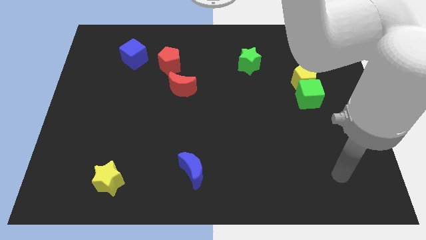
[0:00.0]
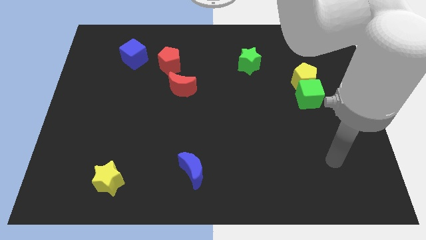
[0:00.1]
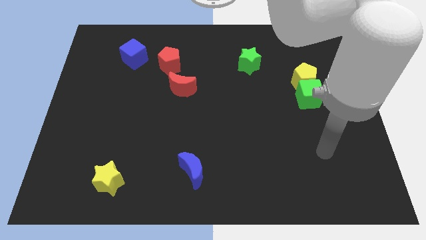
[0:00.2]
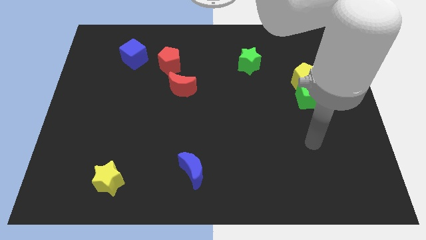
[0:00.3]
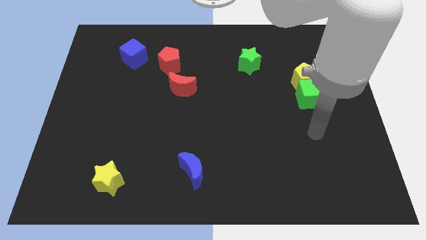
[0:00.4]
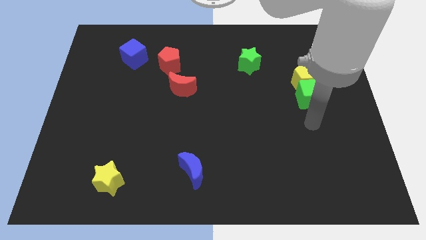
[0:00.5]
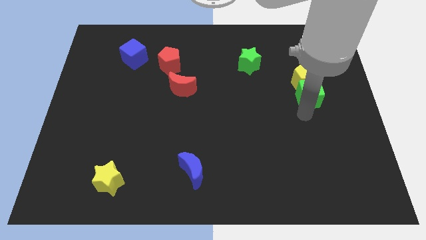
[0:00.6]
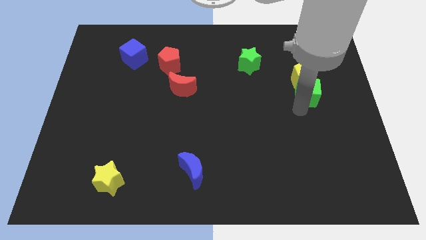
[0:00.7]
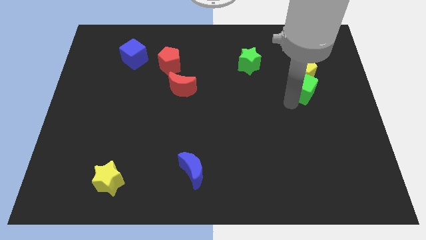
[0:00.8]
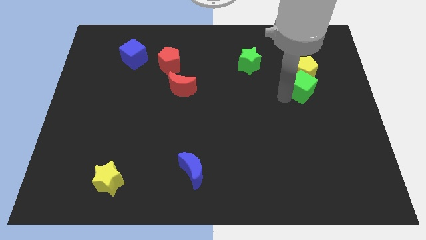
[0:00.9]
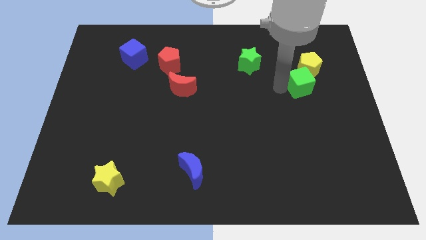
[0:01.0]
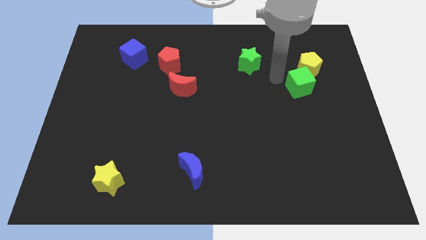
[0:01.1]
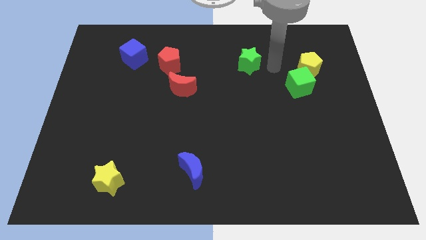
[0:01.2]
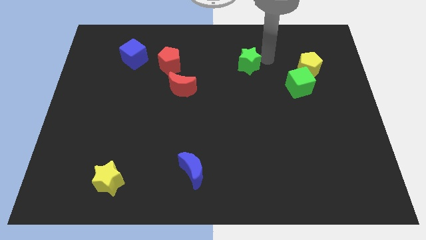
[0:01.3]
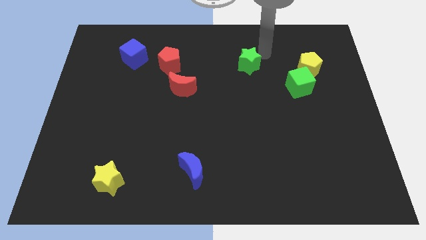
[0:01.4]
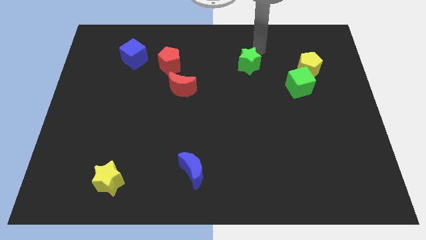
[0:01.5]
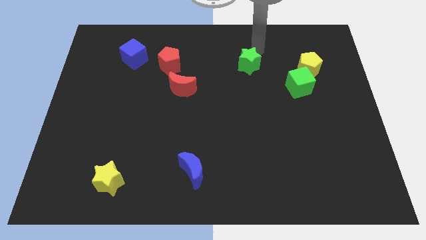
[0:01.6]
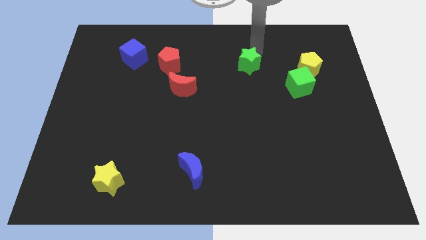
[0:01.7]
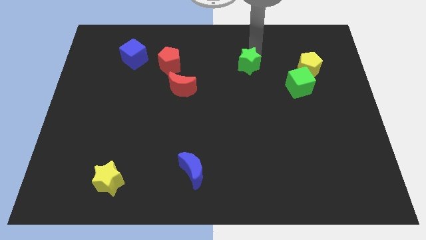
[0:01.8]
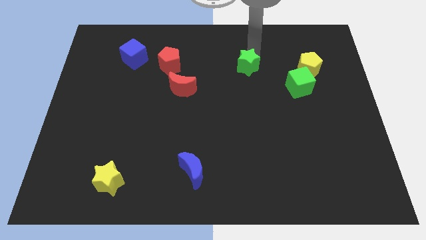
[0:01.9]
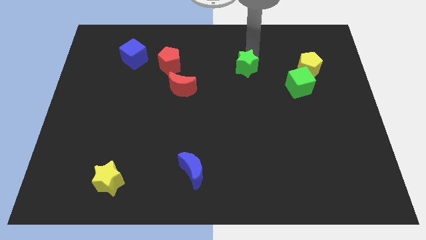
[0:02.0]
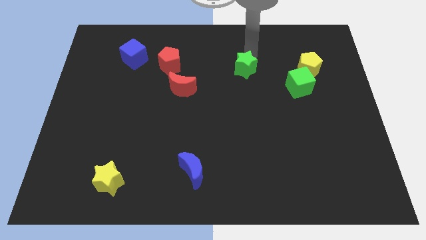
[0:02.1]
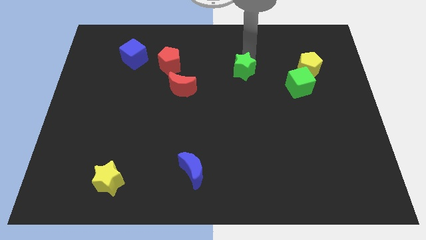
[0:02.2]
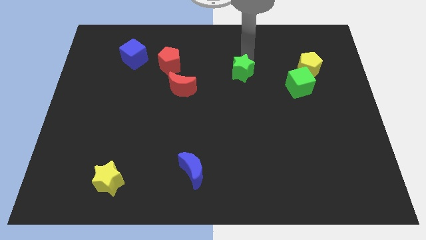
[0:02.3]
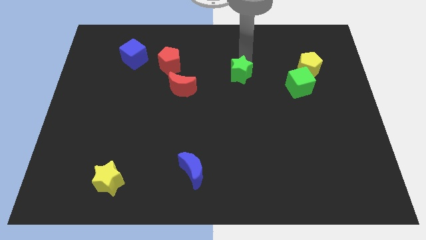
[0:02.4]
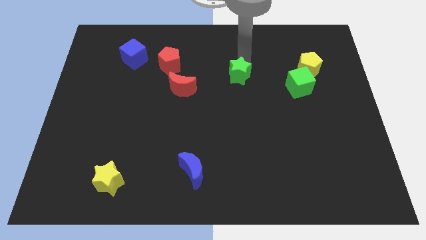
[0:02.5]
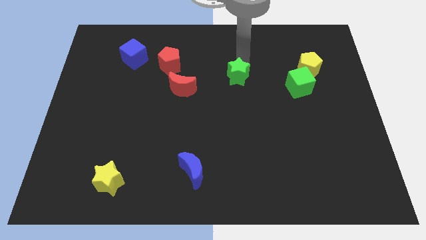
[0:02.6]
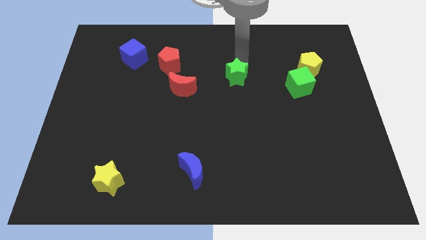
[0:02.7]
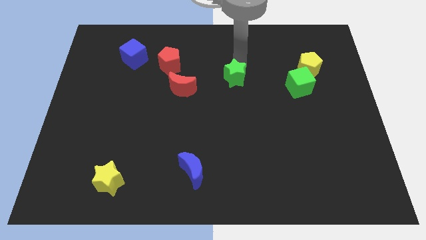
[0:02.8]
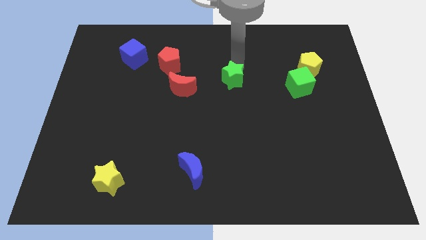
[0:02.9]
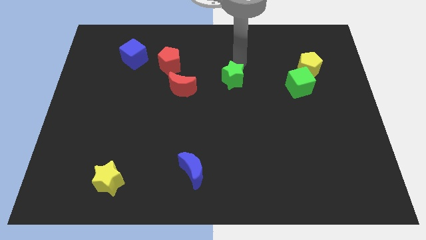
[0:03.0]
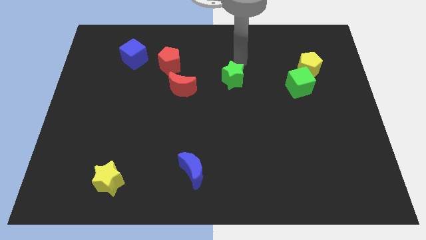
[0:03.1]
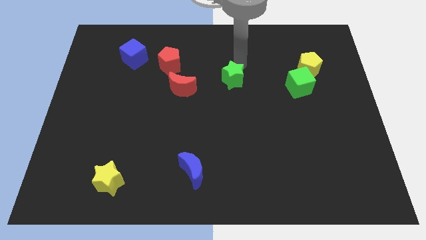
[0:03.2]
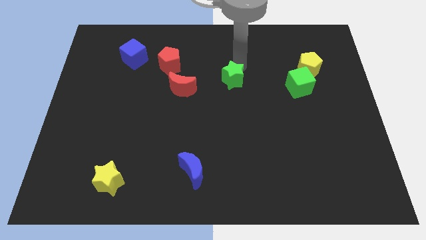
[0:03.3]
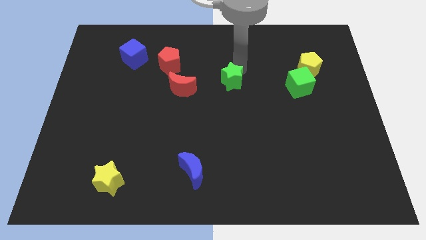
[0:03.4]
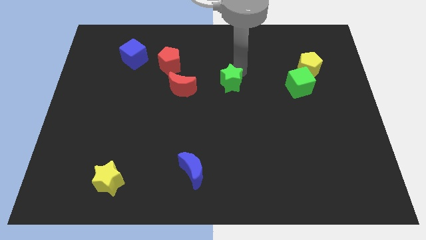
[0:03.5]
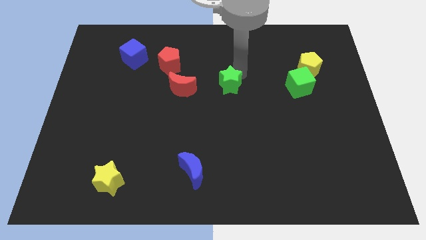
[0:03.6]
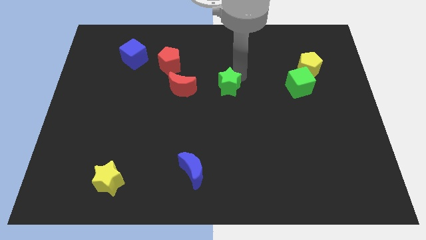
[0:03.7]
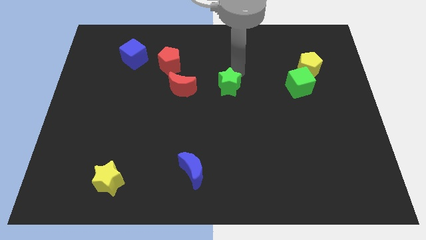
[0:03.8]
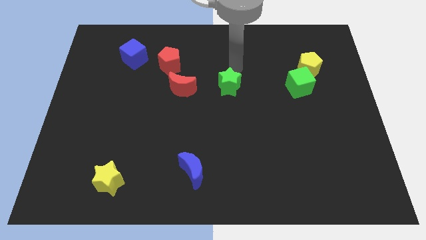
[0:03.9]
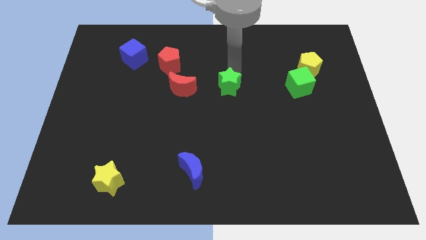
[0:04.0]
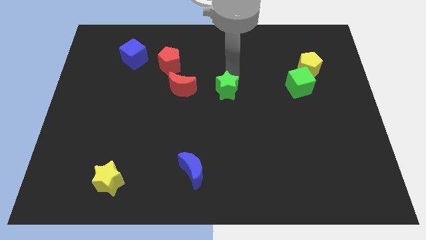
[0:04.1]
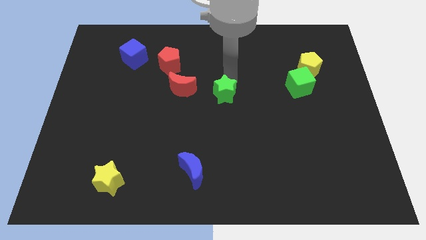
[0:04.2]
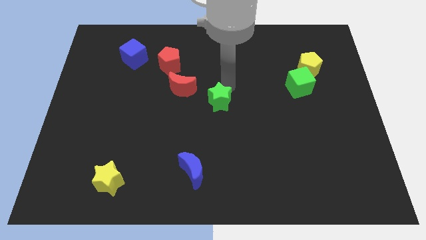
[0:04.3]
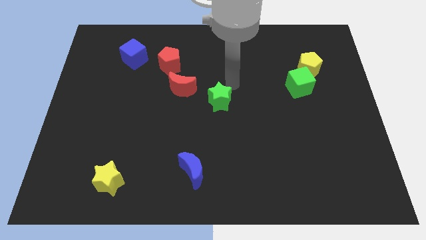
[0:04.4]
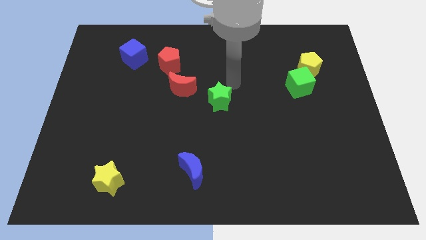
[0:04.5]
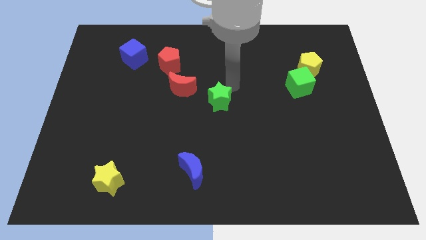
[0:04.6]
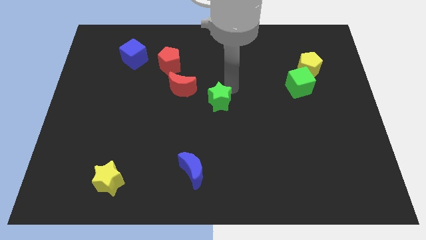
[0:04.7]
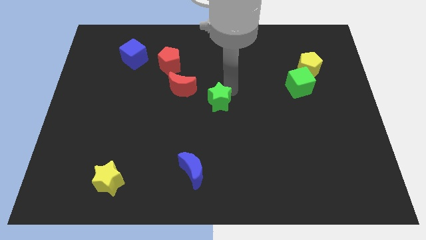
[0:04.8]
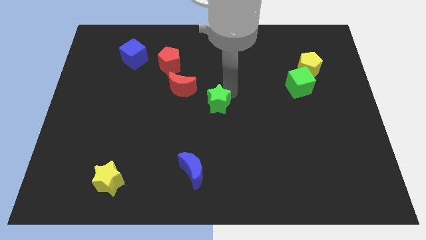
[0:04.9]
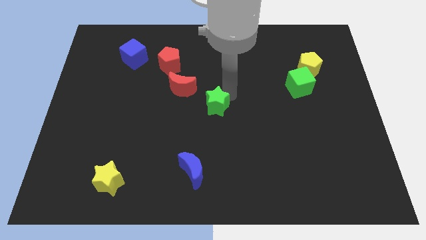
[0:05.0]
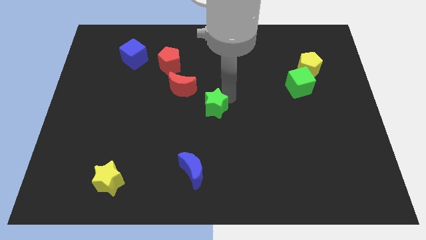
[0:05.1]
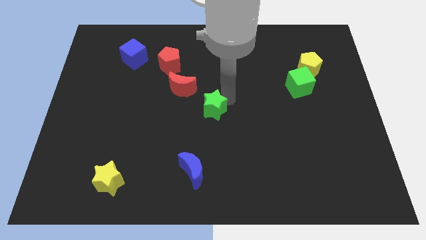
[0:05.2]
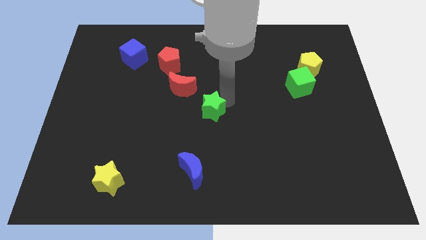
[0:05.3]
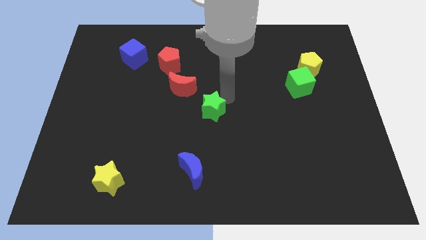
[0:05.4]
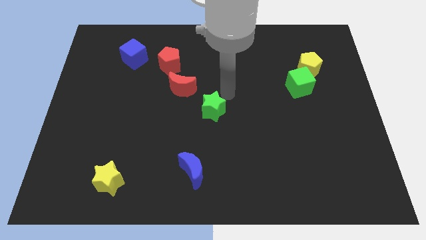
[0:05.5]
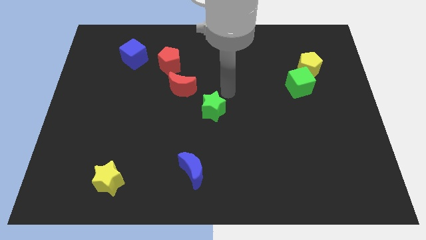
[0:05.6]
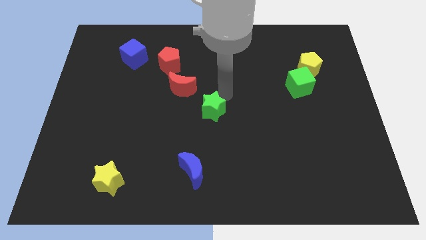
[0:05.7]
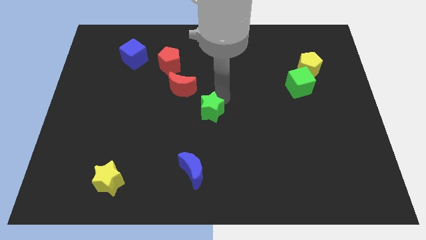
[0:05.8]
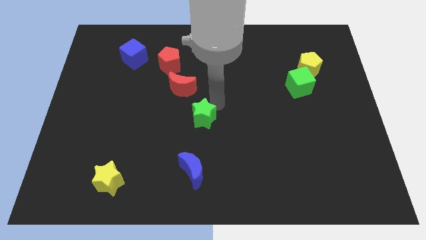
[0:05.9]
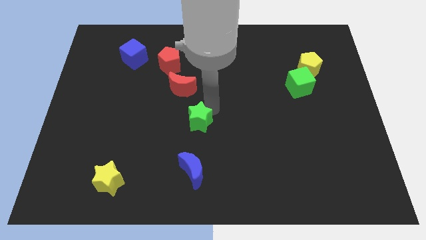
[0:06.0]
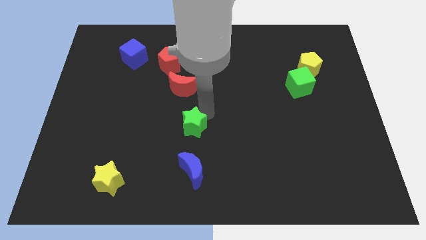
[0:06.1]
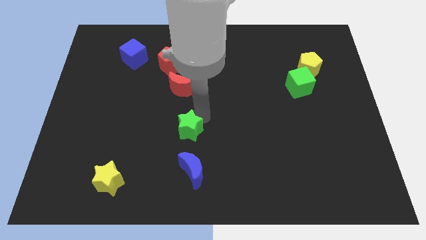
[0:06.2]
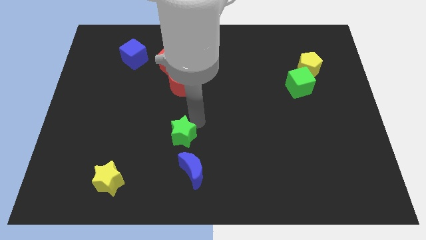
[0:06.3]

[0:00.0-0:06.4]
push the green star to the top left side of the blue moon

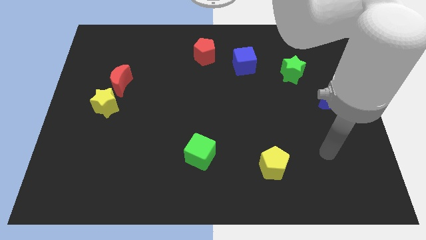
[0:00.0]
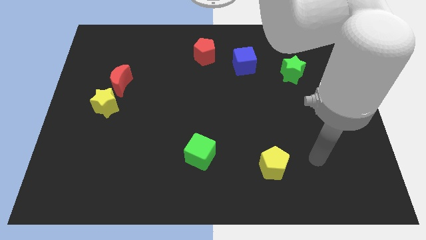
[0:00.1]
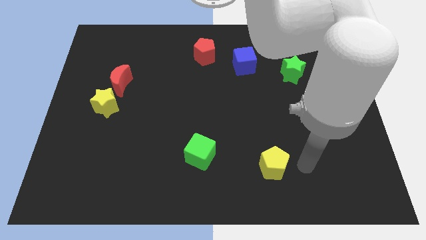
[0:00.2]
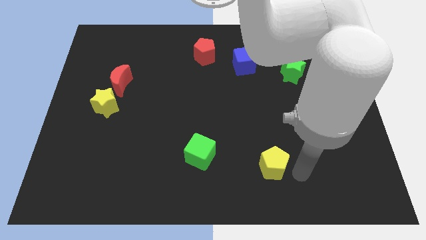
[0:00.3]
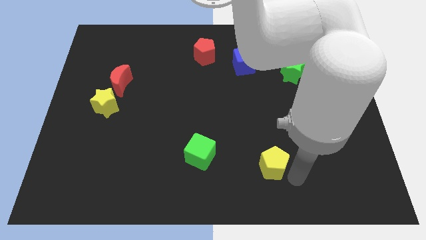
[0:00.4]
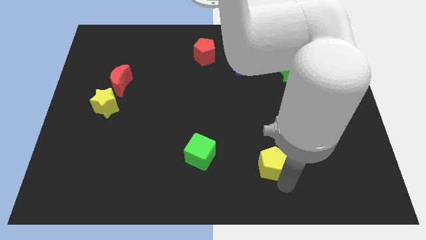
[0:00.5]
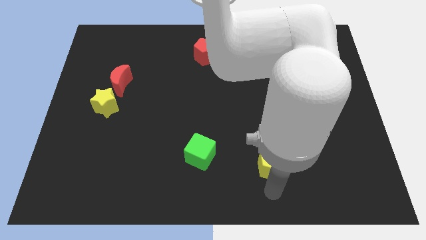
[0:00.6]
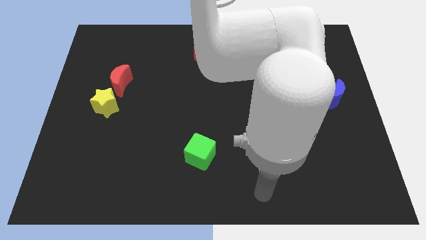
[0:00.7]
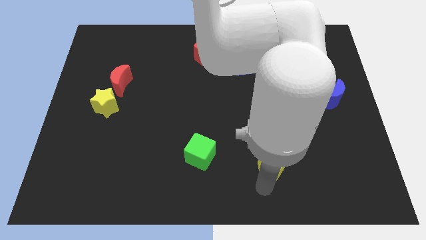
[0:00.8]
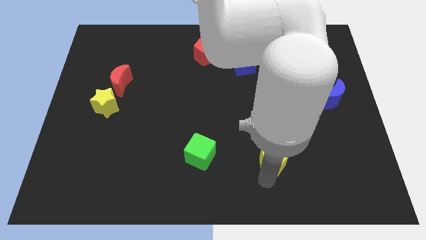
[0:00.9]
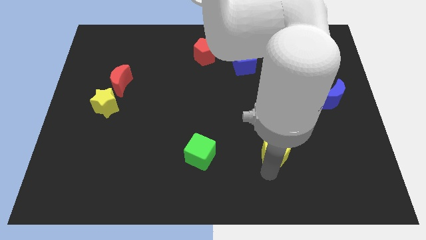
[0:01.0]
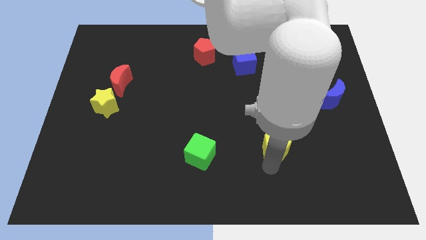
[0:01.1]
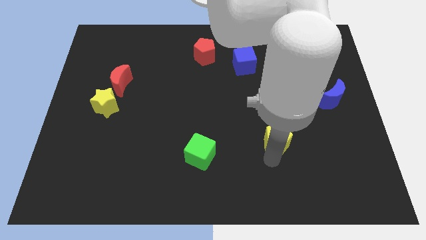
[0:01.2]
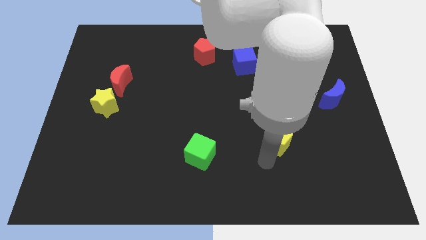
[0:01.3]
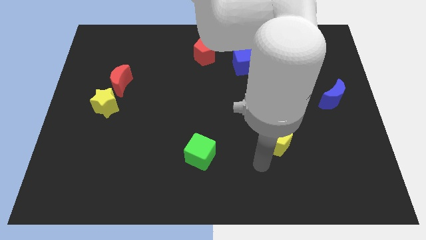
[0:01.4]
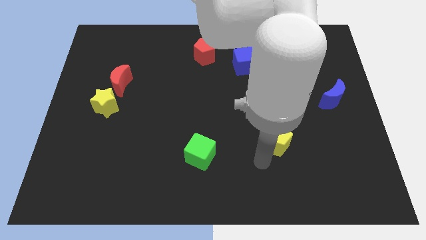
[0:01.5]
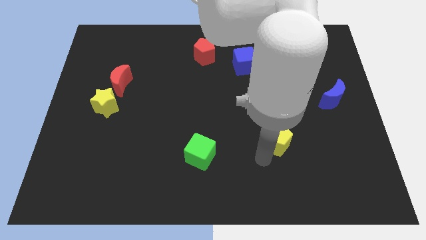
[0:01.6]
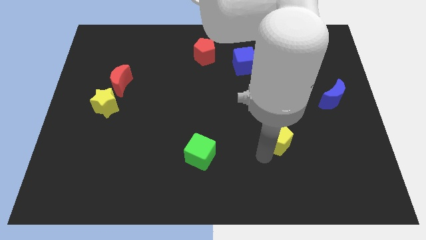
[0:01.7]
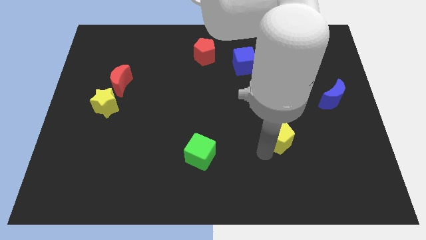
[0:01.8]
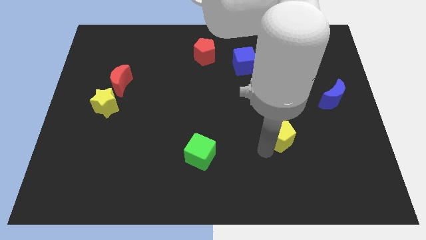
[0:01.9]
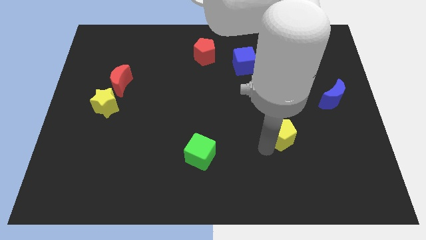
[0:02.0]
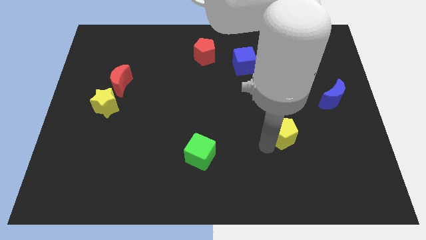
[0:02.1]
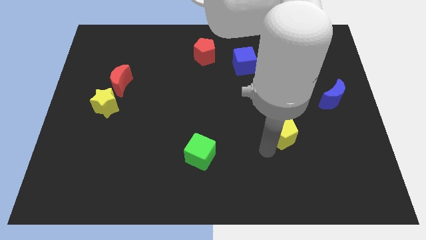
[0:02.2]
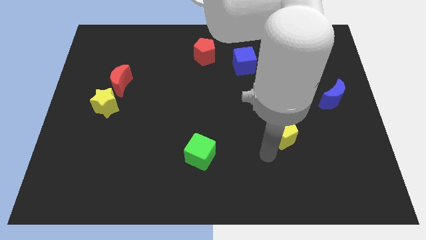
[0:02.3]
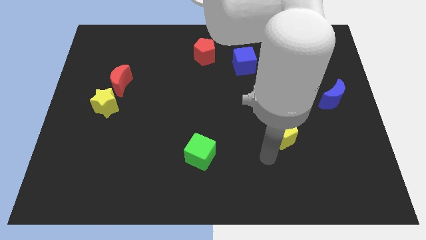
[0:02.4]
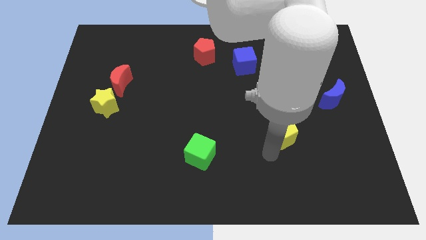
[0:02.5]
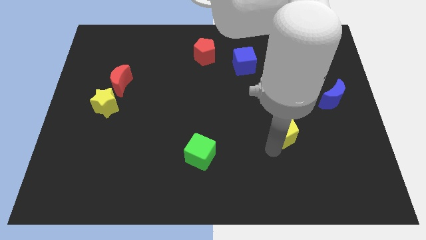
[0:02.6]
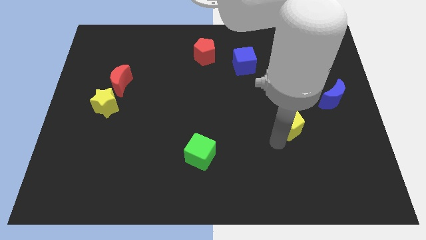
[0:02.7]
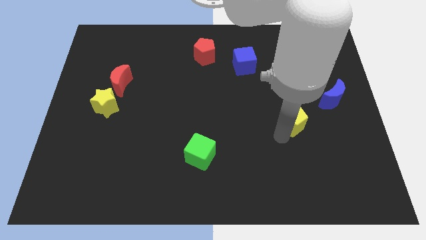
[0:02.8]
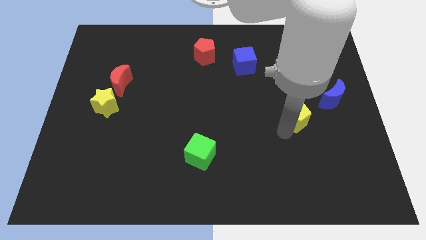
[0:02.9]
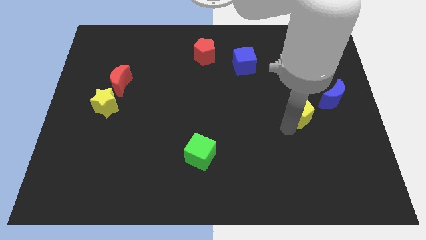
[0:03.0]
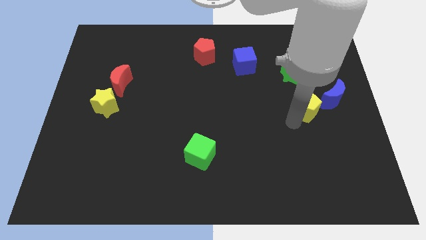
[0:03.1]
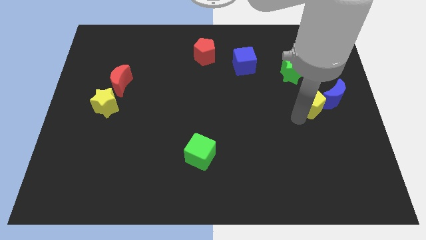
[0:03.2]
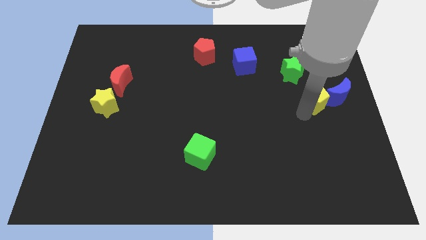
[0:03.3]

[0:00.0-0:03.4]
move the yellow pentagon diagonally down and to the right of the green star
